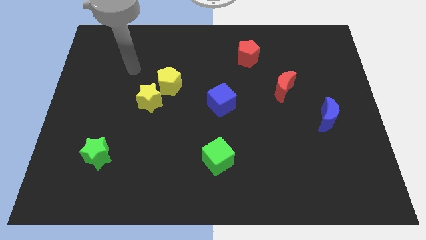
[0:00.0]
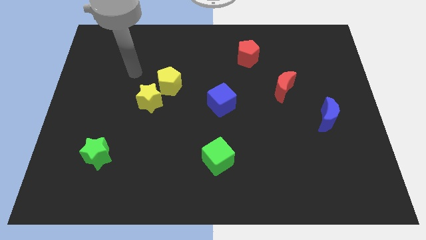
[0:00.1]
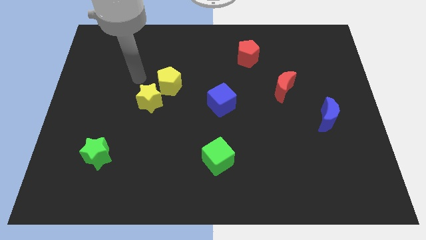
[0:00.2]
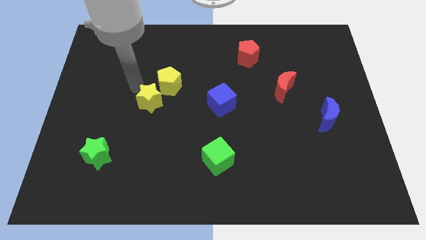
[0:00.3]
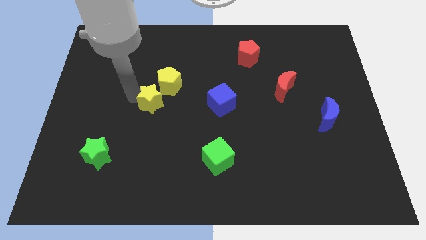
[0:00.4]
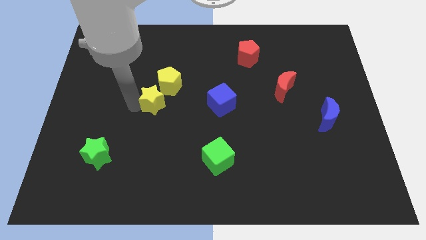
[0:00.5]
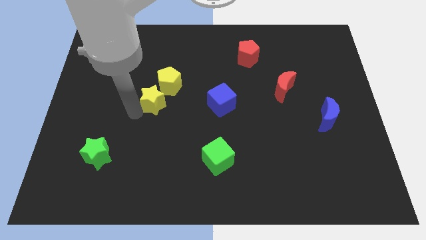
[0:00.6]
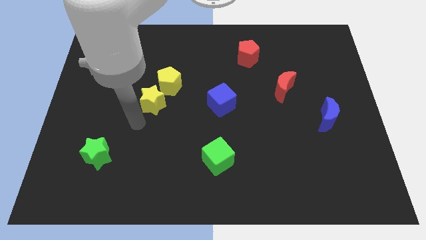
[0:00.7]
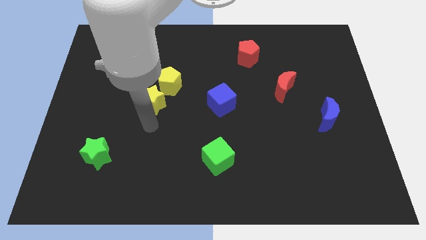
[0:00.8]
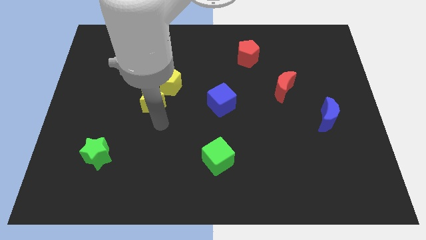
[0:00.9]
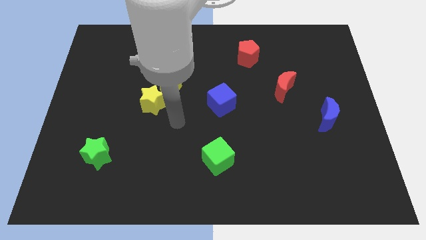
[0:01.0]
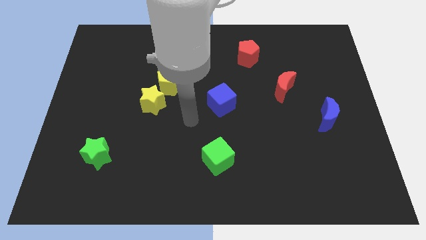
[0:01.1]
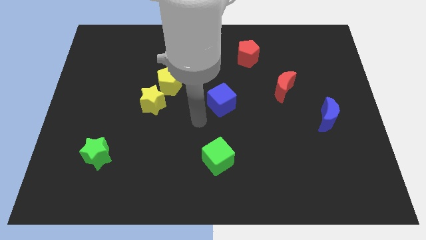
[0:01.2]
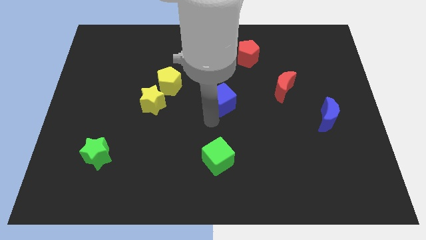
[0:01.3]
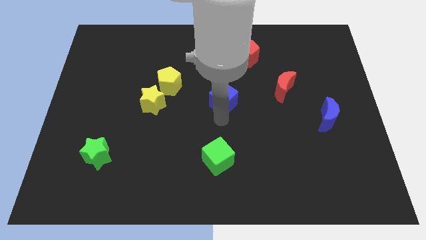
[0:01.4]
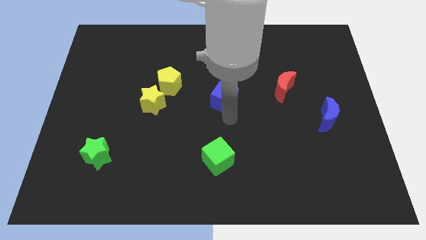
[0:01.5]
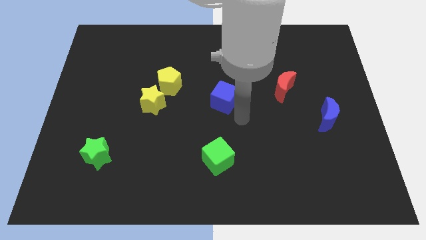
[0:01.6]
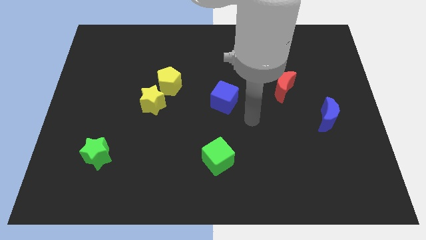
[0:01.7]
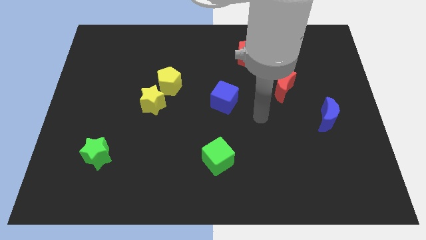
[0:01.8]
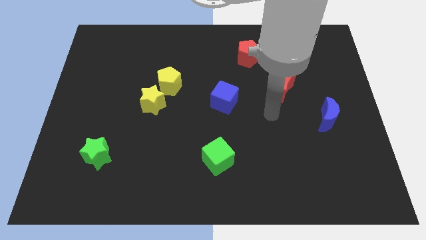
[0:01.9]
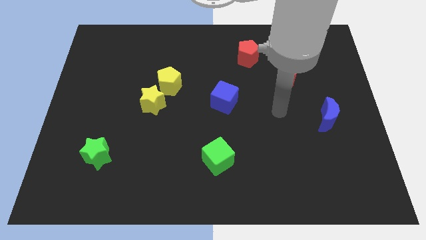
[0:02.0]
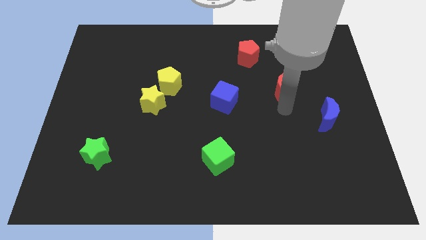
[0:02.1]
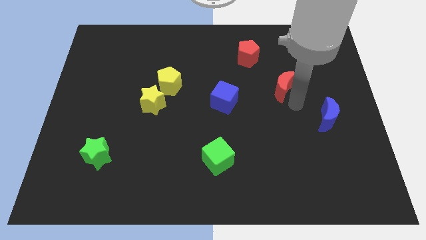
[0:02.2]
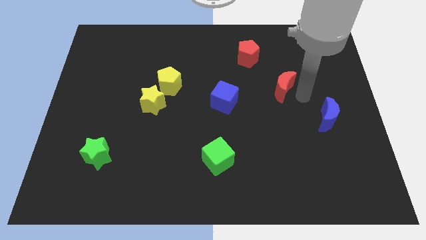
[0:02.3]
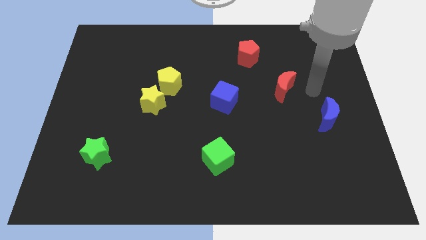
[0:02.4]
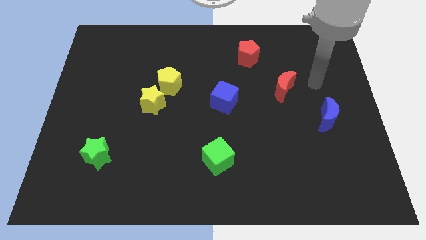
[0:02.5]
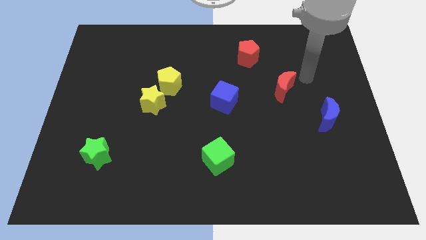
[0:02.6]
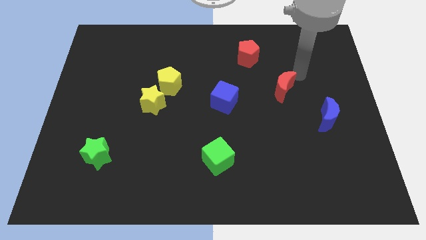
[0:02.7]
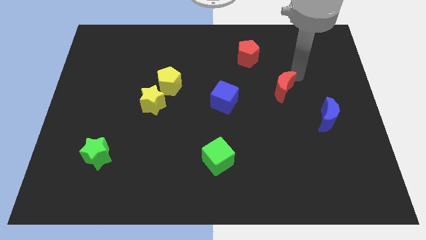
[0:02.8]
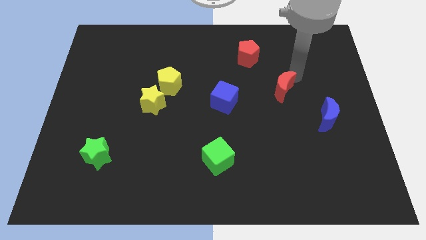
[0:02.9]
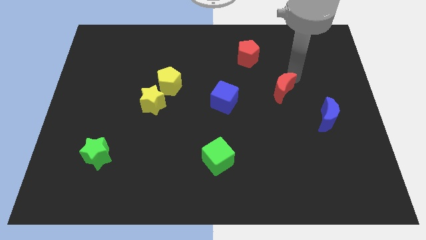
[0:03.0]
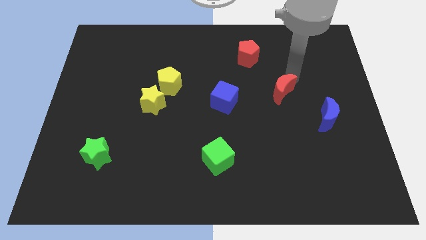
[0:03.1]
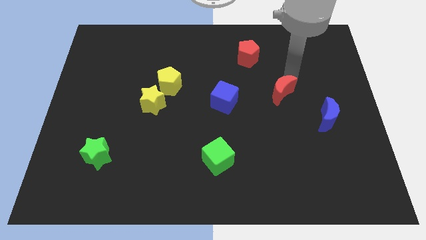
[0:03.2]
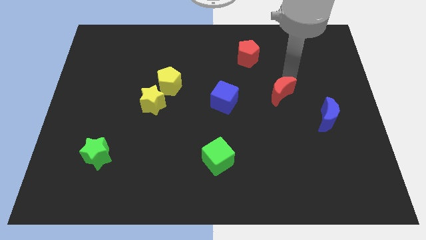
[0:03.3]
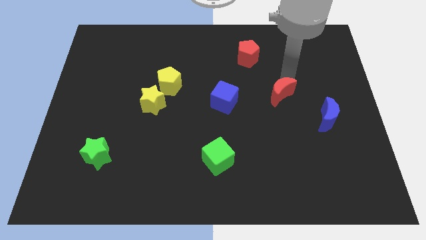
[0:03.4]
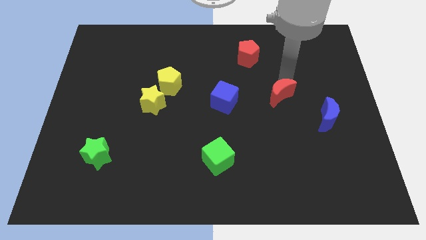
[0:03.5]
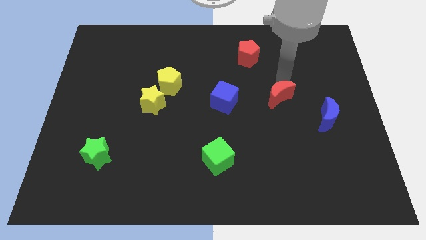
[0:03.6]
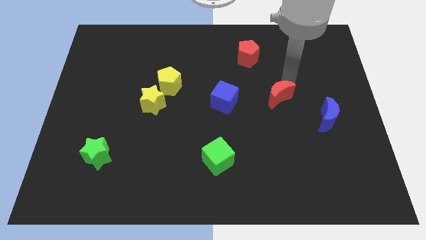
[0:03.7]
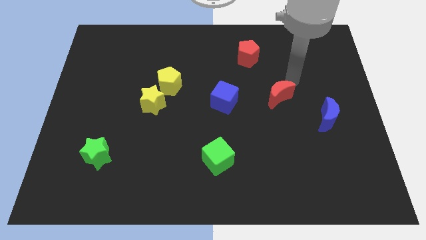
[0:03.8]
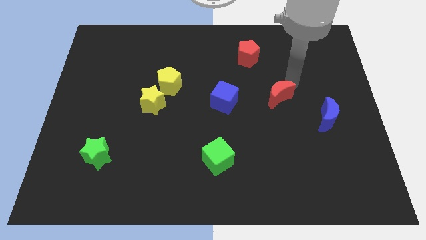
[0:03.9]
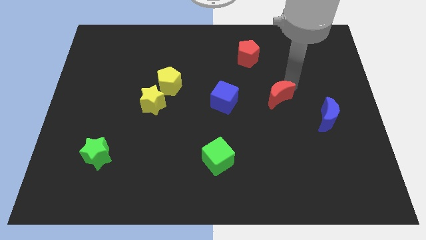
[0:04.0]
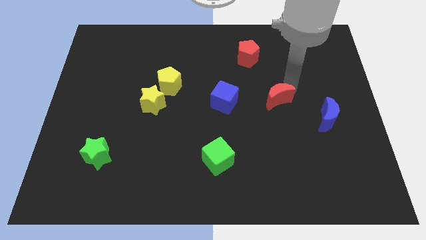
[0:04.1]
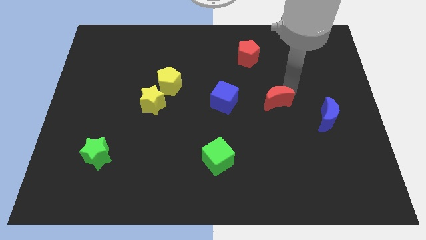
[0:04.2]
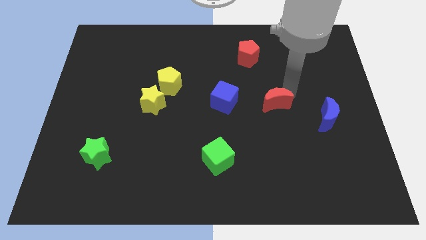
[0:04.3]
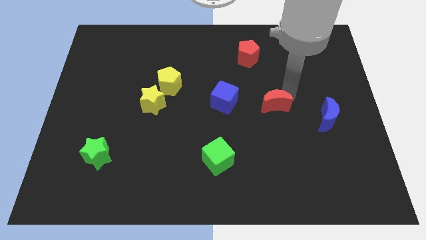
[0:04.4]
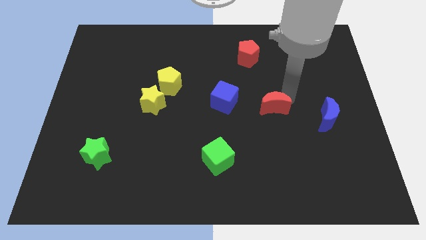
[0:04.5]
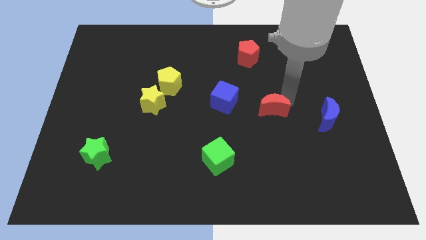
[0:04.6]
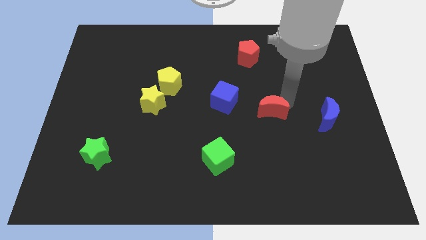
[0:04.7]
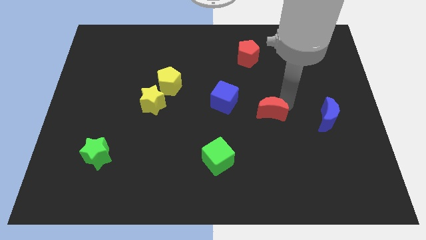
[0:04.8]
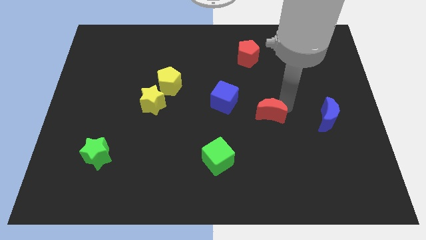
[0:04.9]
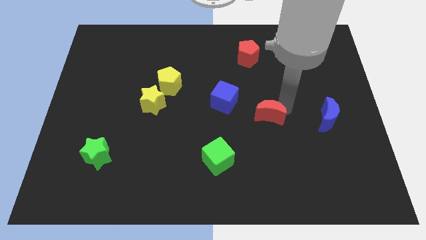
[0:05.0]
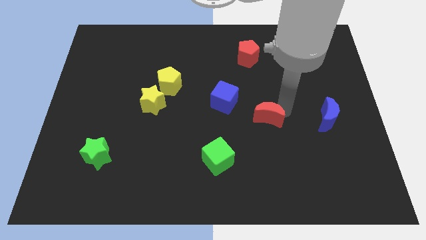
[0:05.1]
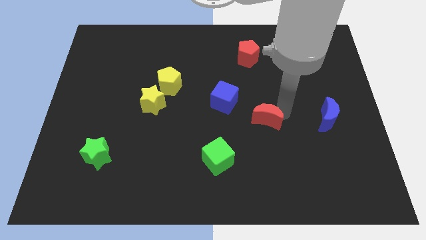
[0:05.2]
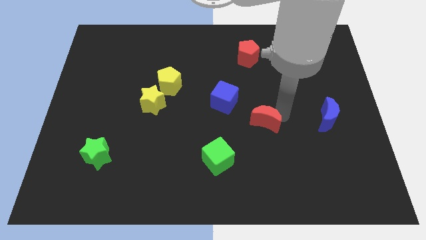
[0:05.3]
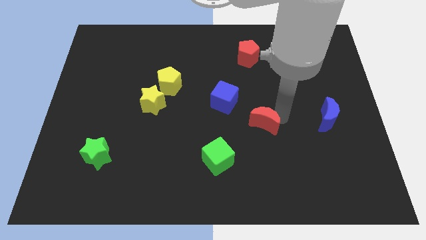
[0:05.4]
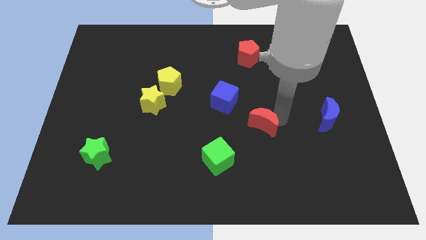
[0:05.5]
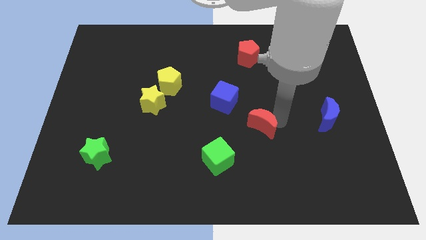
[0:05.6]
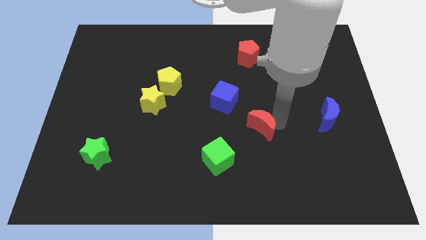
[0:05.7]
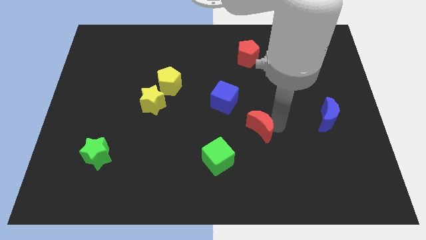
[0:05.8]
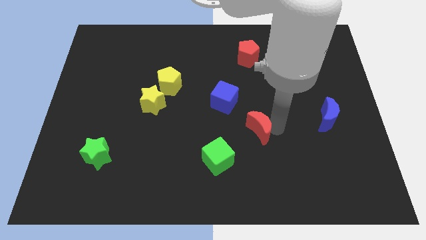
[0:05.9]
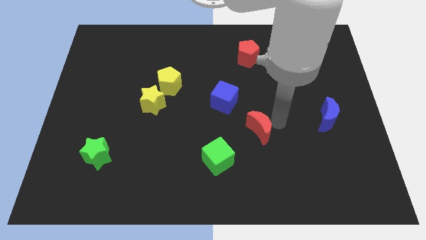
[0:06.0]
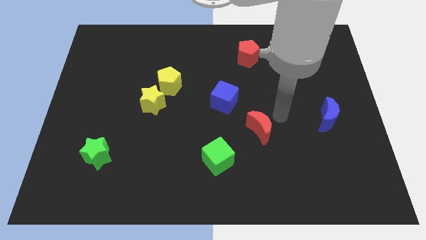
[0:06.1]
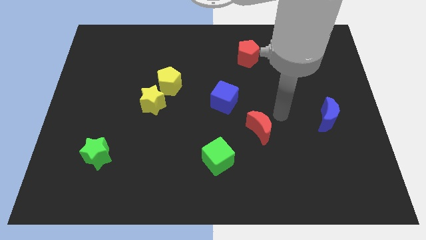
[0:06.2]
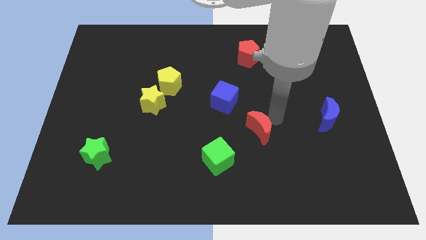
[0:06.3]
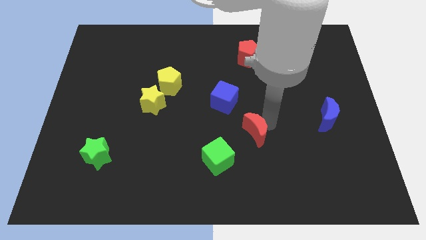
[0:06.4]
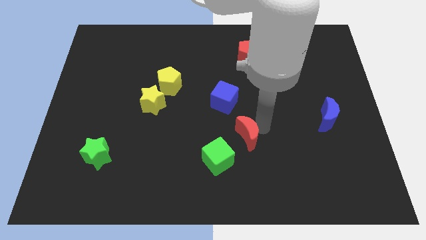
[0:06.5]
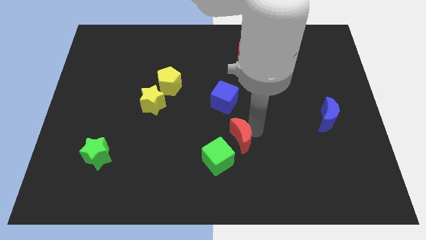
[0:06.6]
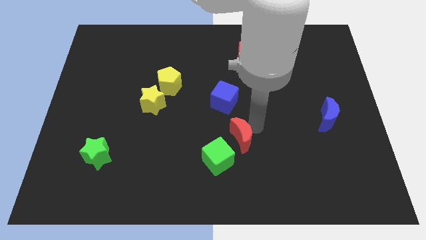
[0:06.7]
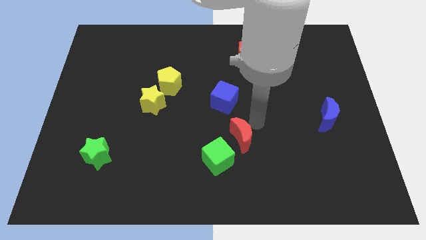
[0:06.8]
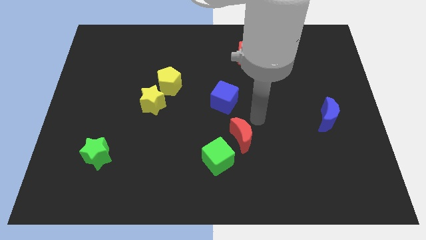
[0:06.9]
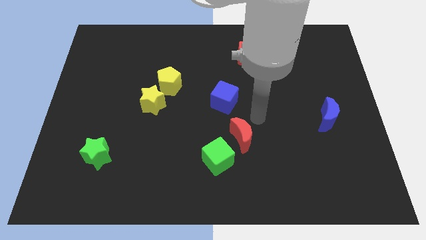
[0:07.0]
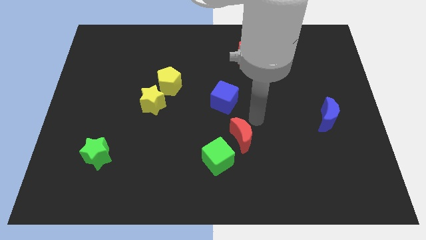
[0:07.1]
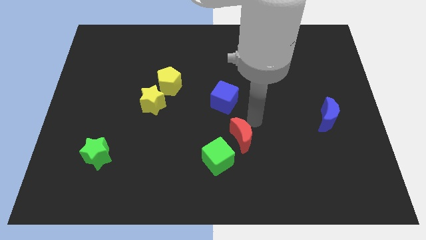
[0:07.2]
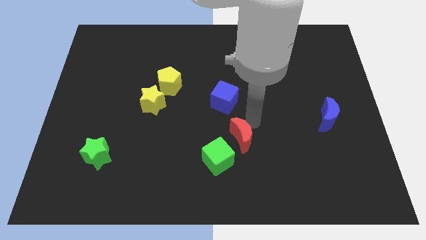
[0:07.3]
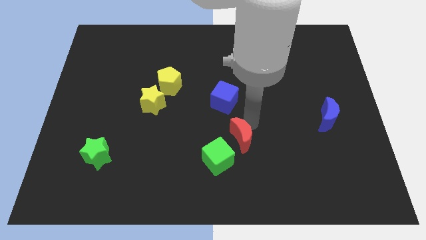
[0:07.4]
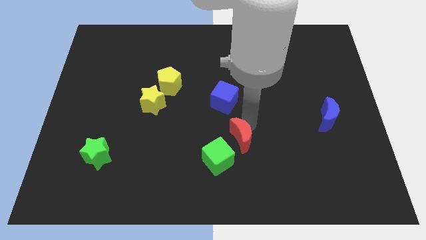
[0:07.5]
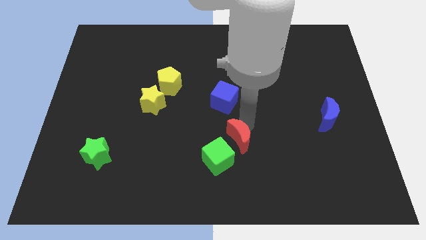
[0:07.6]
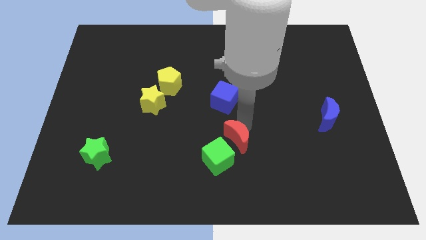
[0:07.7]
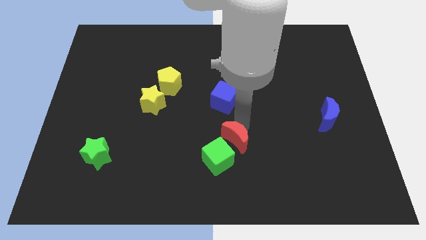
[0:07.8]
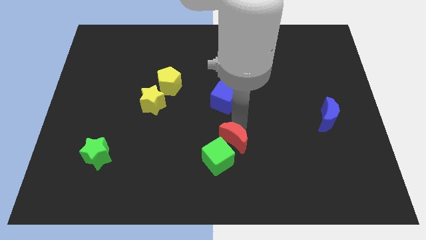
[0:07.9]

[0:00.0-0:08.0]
put the red moon close to the green cube
